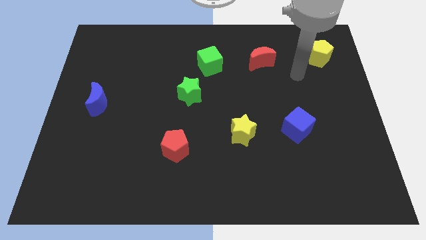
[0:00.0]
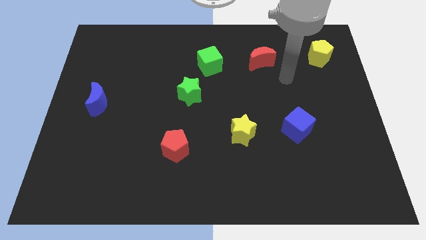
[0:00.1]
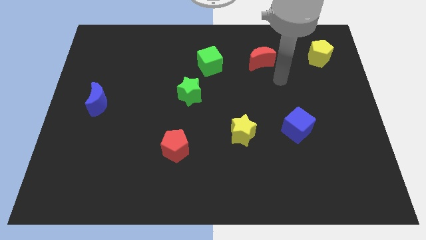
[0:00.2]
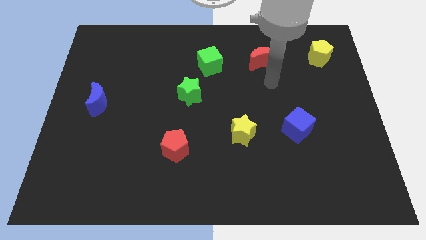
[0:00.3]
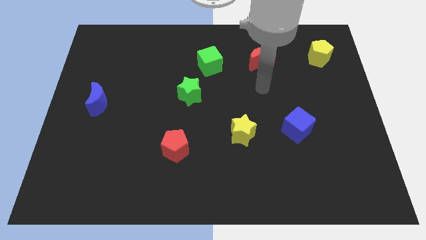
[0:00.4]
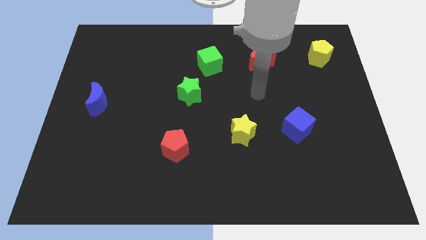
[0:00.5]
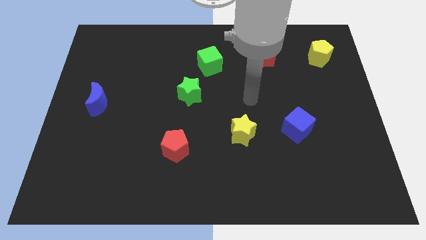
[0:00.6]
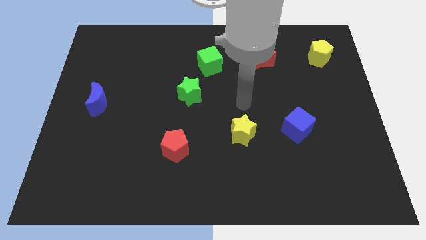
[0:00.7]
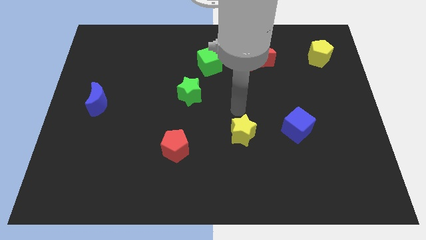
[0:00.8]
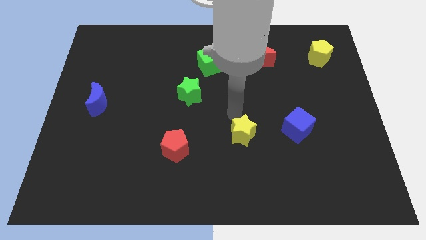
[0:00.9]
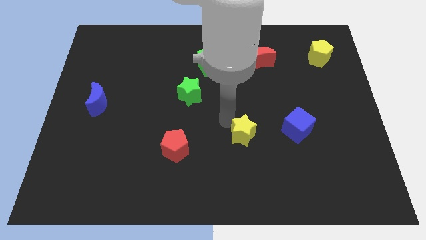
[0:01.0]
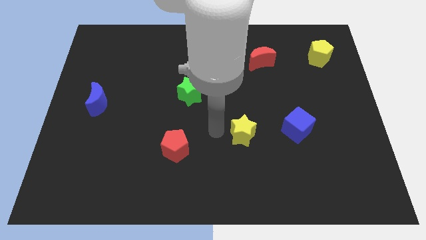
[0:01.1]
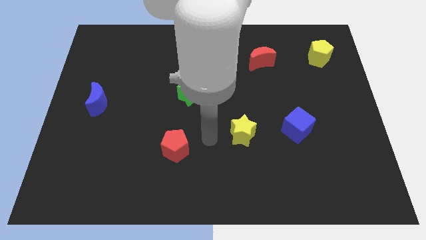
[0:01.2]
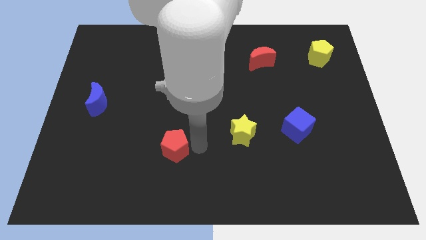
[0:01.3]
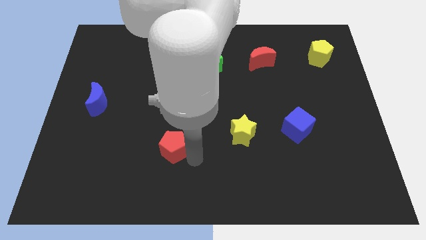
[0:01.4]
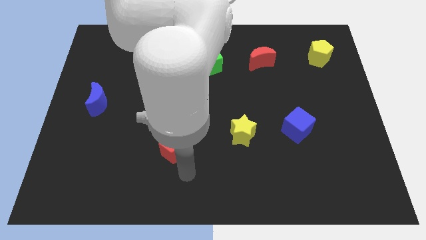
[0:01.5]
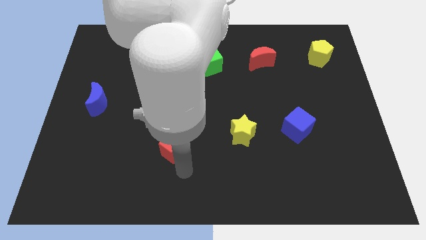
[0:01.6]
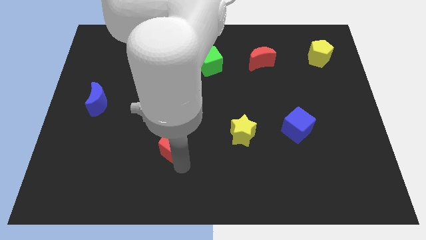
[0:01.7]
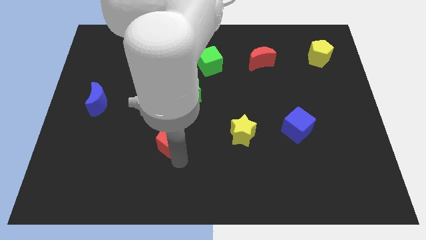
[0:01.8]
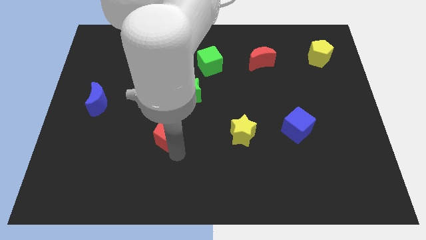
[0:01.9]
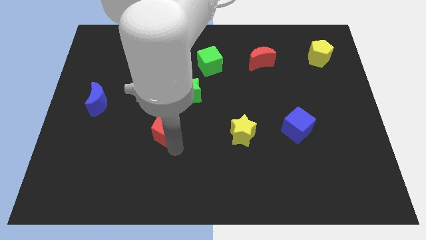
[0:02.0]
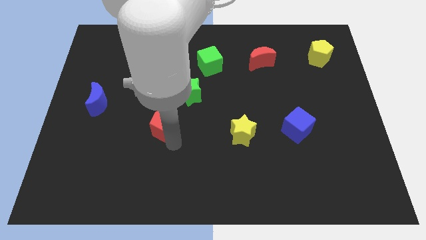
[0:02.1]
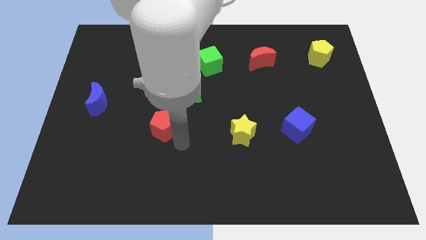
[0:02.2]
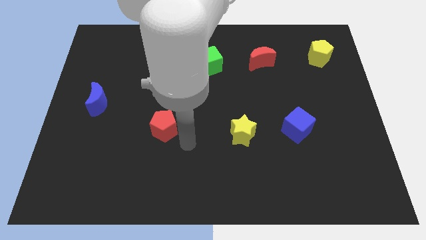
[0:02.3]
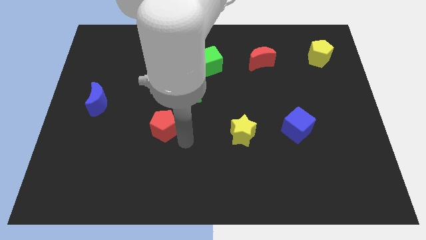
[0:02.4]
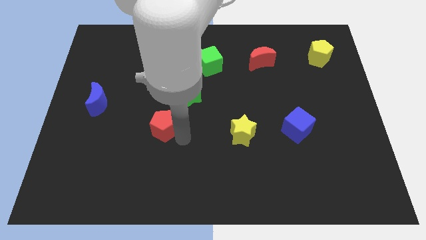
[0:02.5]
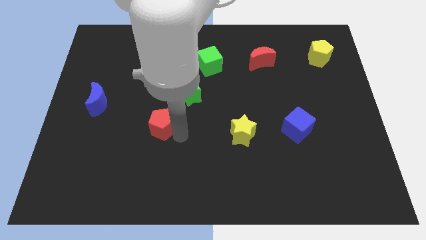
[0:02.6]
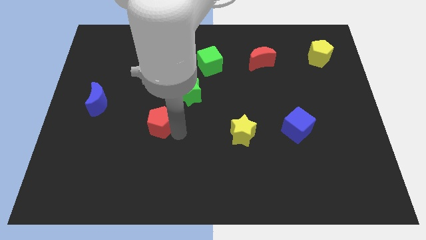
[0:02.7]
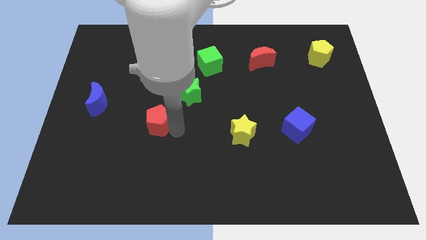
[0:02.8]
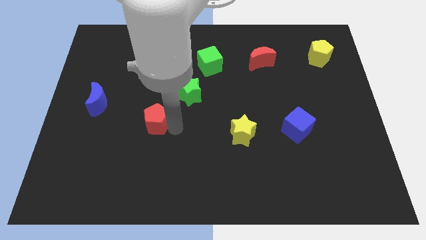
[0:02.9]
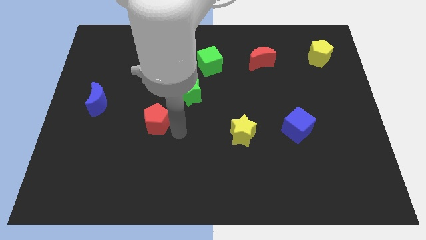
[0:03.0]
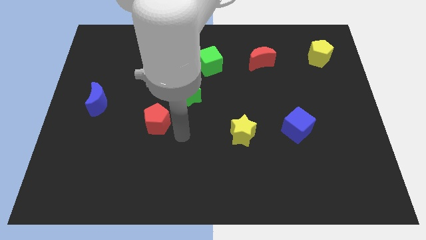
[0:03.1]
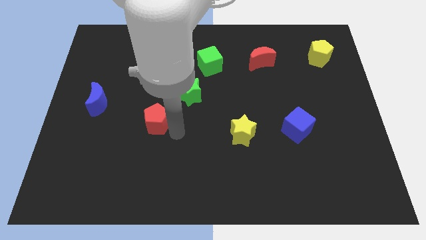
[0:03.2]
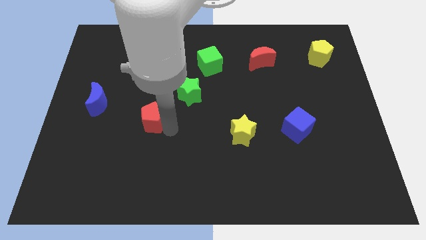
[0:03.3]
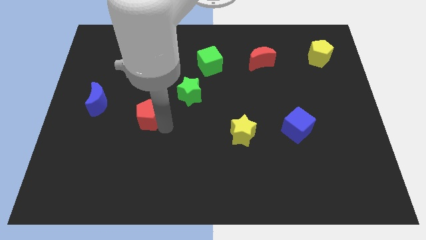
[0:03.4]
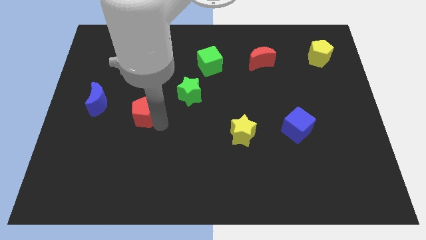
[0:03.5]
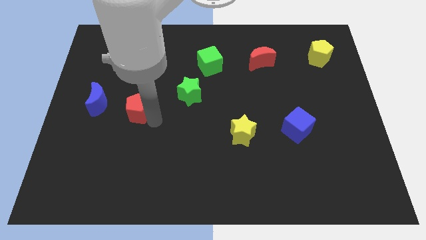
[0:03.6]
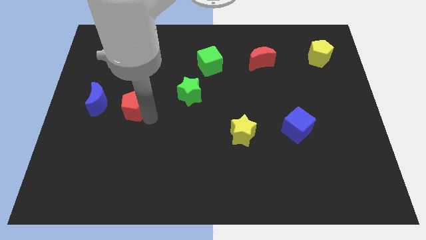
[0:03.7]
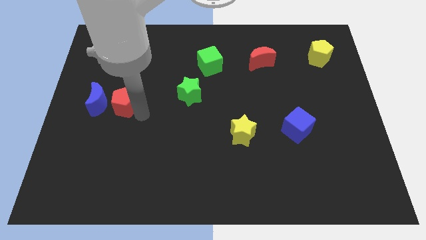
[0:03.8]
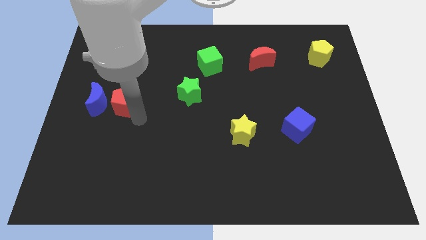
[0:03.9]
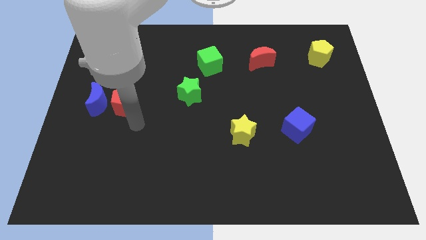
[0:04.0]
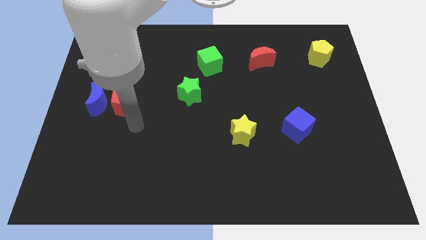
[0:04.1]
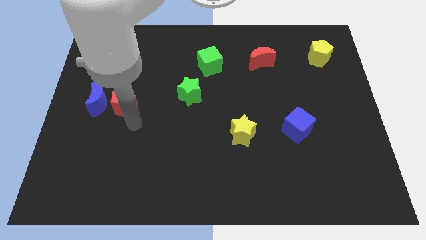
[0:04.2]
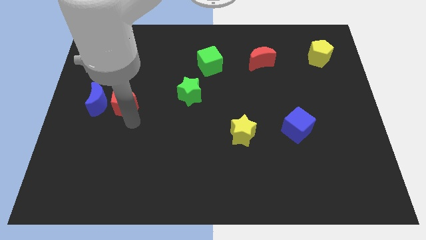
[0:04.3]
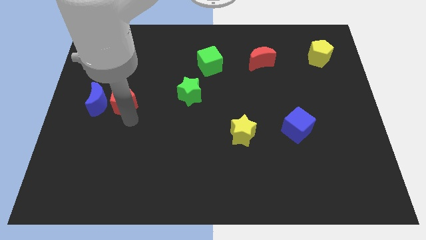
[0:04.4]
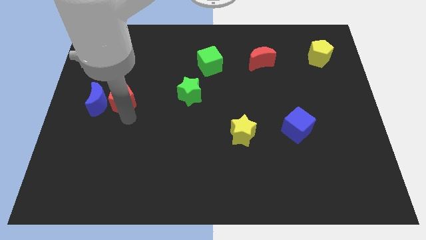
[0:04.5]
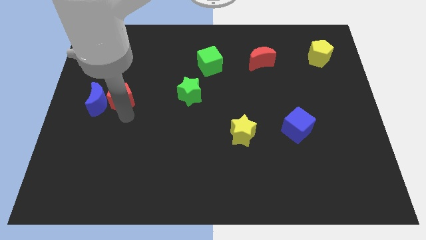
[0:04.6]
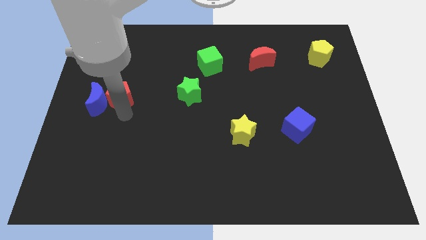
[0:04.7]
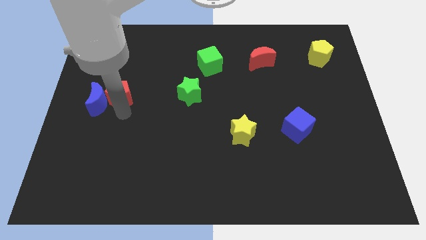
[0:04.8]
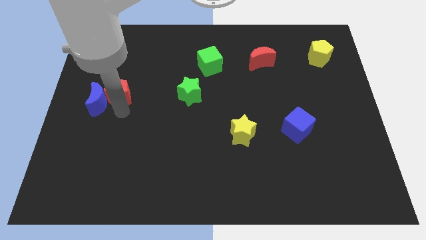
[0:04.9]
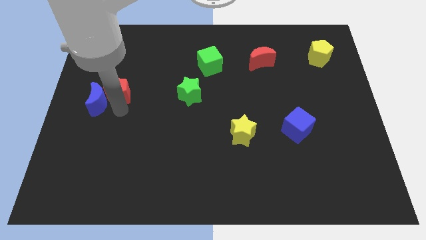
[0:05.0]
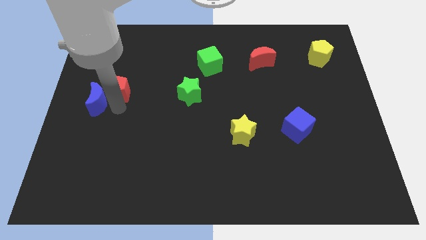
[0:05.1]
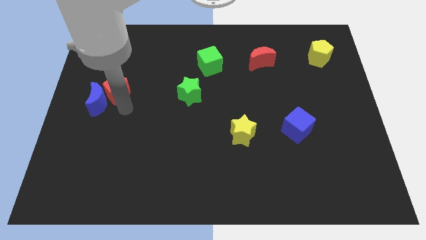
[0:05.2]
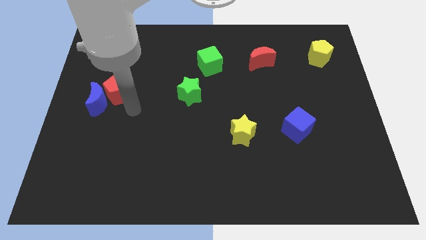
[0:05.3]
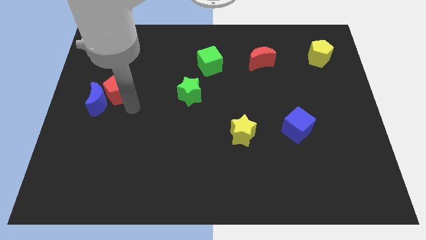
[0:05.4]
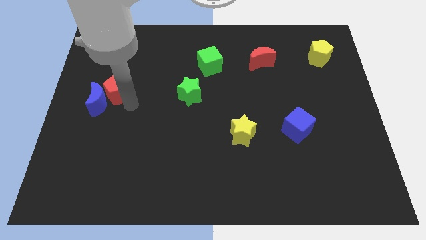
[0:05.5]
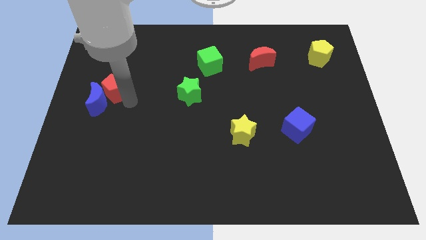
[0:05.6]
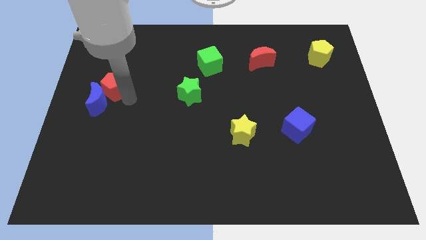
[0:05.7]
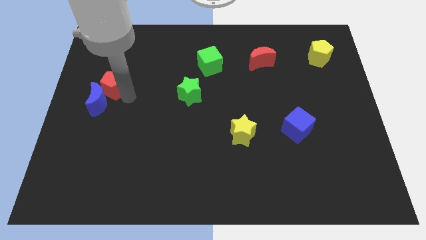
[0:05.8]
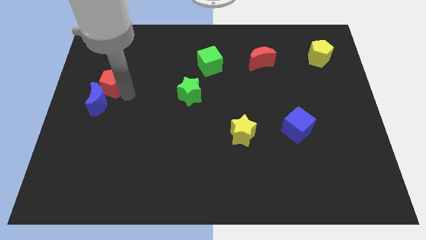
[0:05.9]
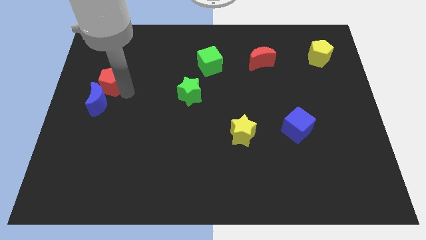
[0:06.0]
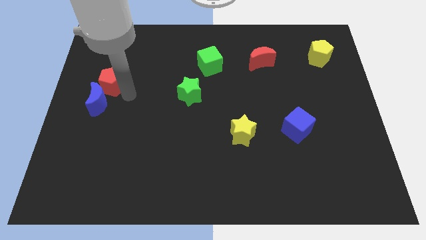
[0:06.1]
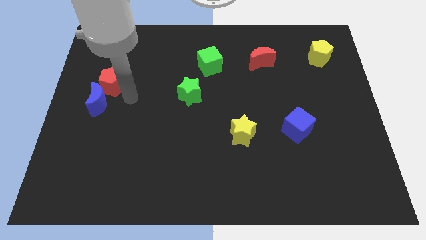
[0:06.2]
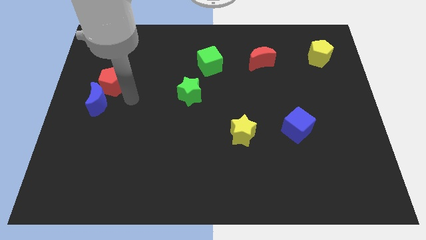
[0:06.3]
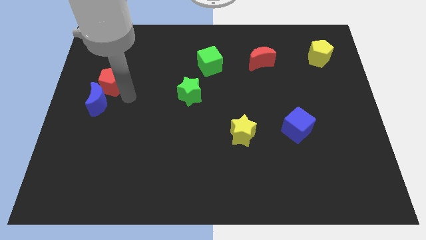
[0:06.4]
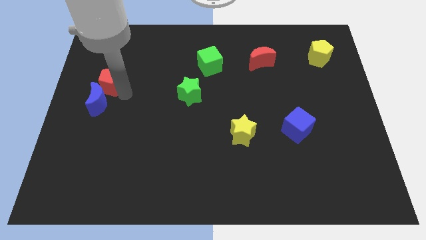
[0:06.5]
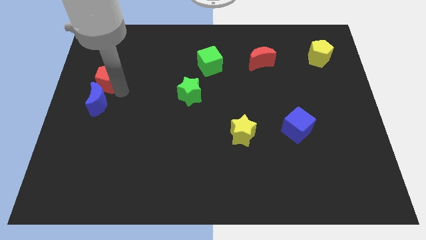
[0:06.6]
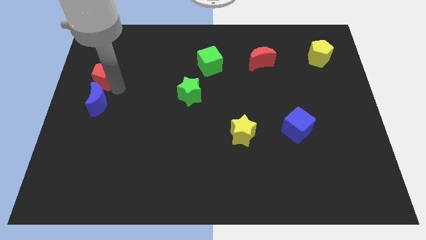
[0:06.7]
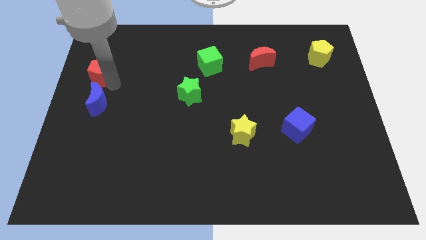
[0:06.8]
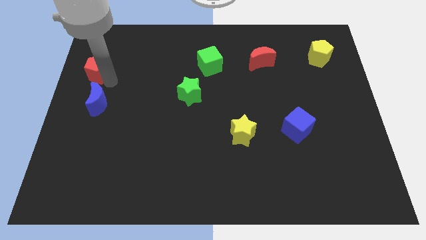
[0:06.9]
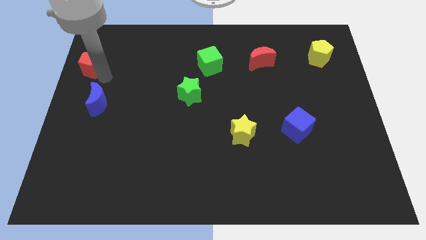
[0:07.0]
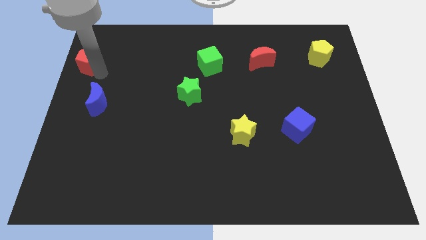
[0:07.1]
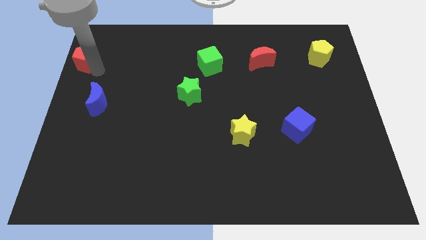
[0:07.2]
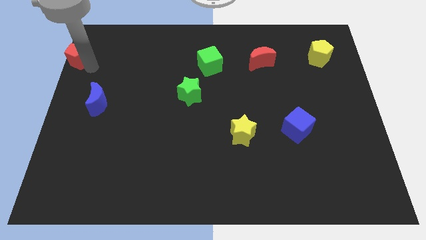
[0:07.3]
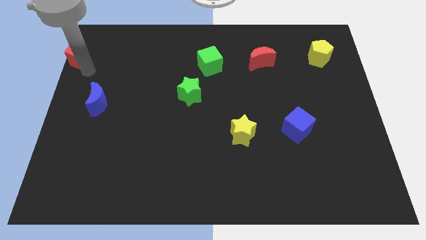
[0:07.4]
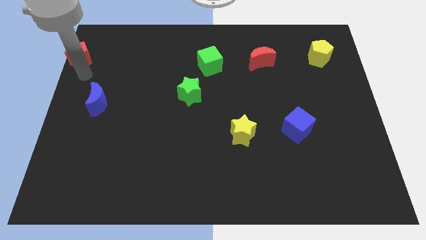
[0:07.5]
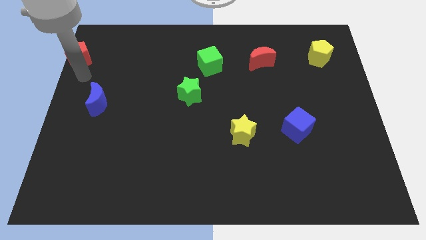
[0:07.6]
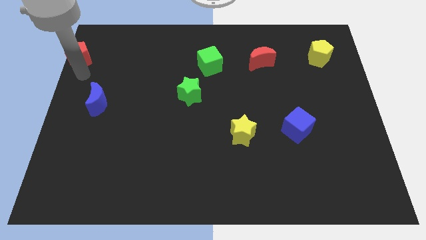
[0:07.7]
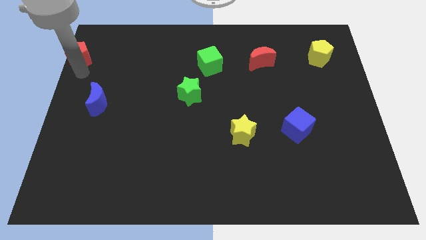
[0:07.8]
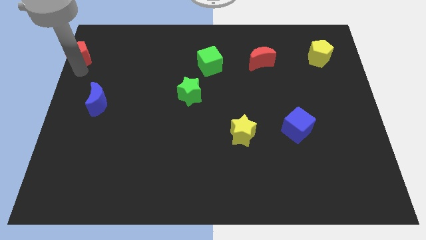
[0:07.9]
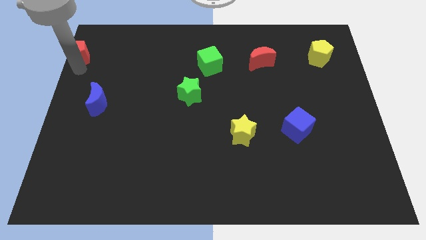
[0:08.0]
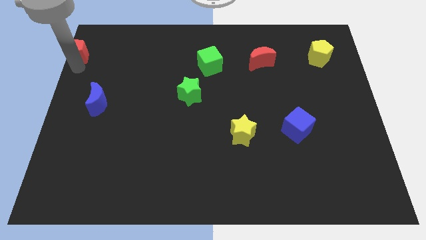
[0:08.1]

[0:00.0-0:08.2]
push the red pentagon to the top left corner
